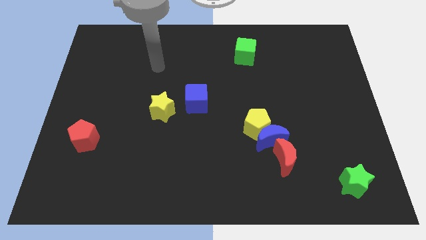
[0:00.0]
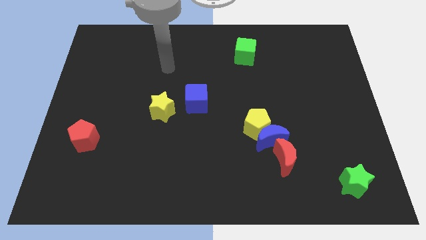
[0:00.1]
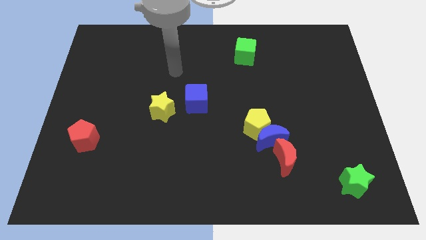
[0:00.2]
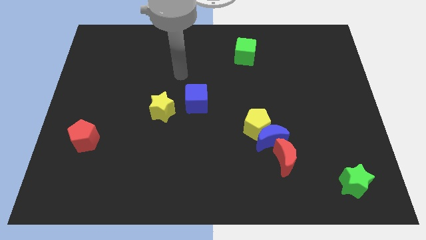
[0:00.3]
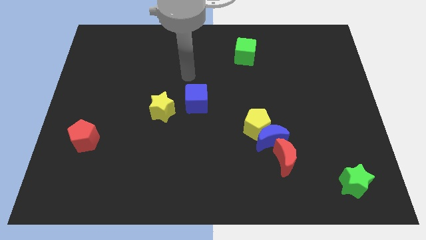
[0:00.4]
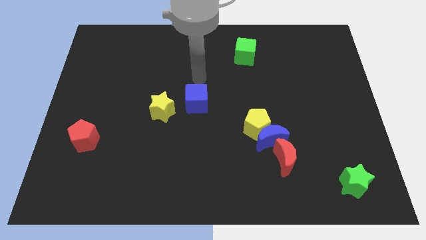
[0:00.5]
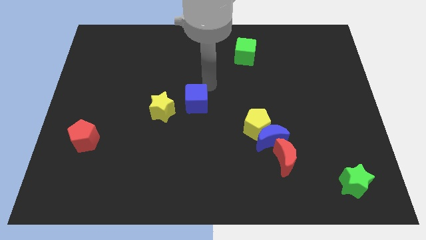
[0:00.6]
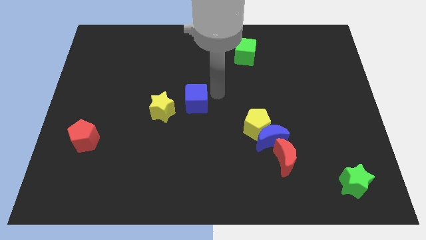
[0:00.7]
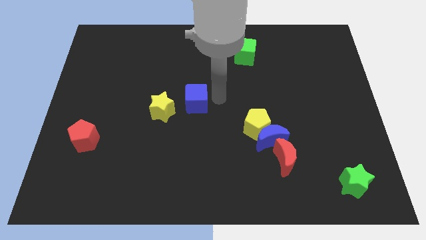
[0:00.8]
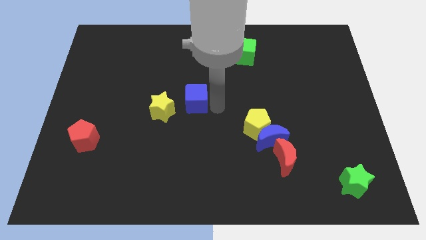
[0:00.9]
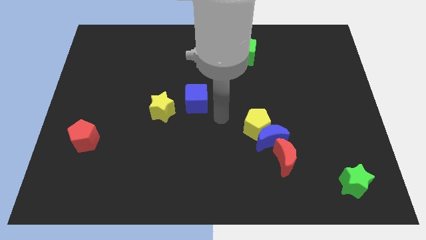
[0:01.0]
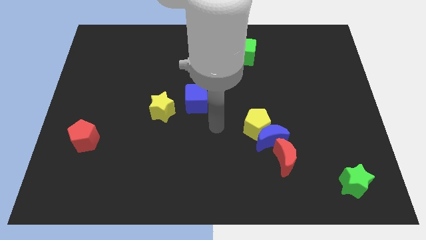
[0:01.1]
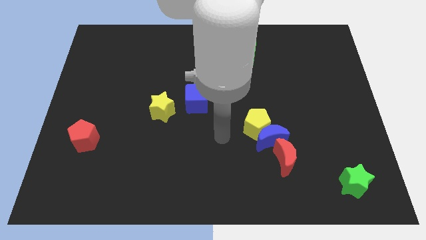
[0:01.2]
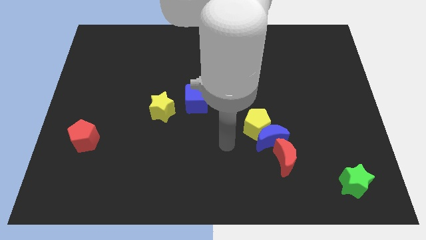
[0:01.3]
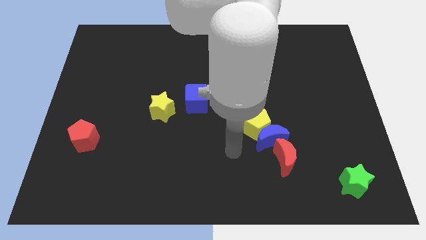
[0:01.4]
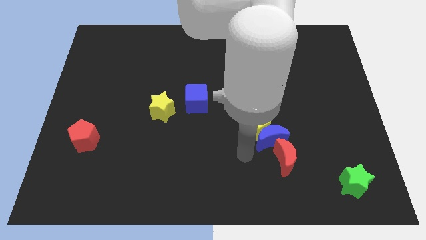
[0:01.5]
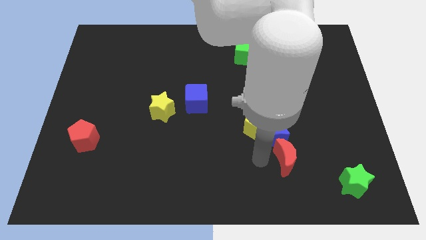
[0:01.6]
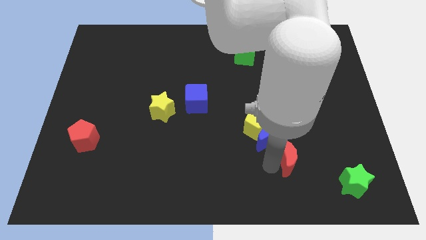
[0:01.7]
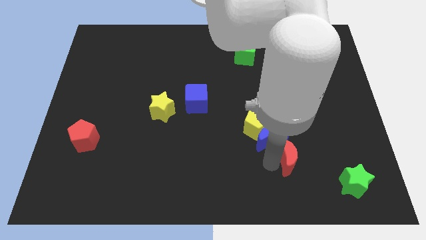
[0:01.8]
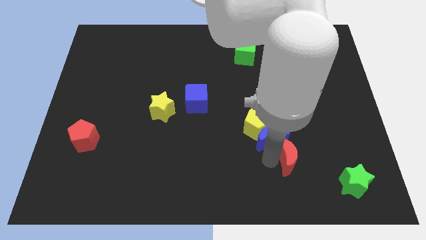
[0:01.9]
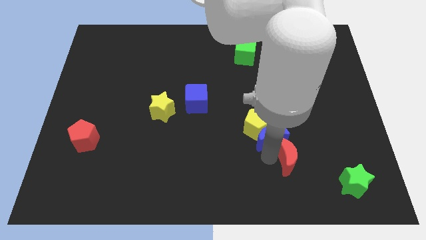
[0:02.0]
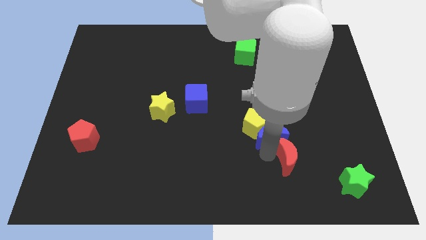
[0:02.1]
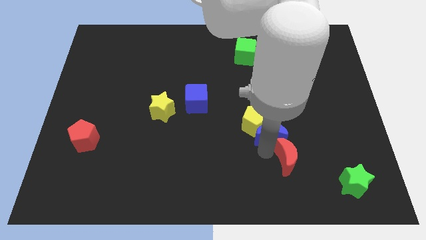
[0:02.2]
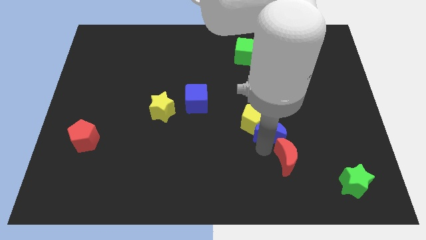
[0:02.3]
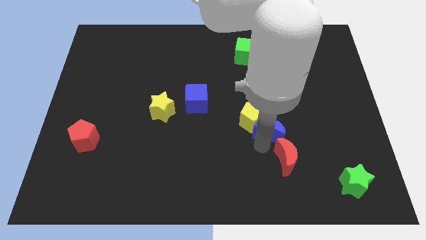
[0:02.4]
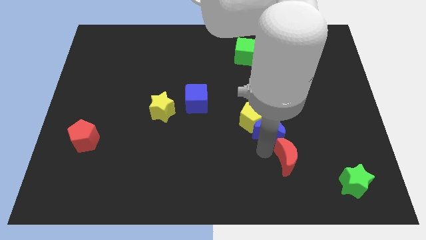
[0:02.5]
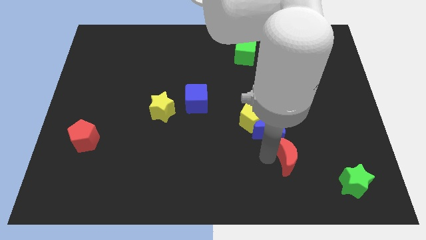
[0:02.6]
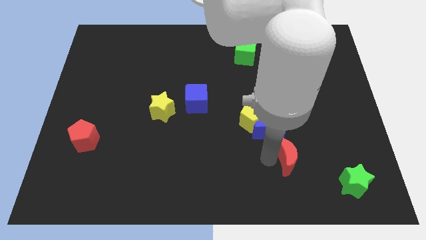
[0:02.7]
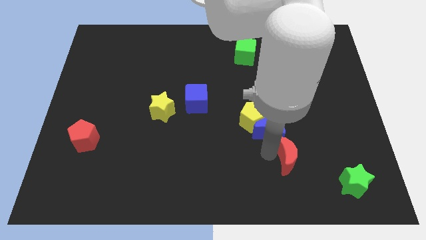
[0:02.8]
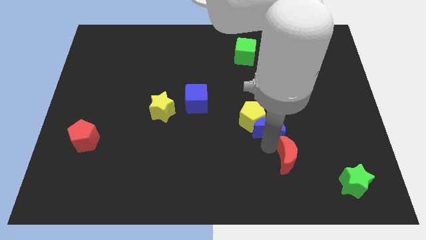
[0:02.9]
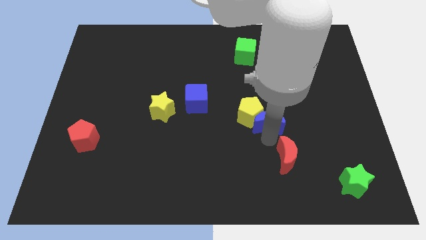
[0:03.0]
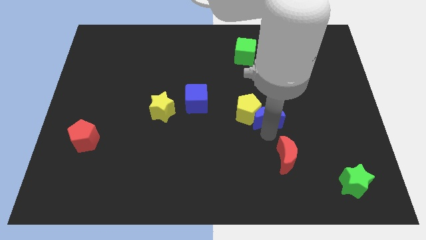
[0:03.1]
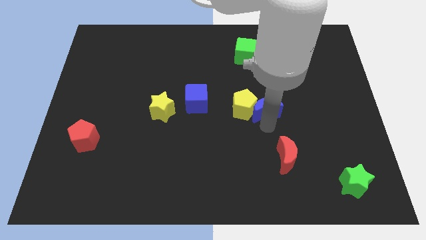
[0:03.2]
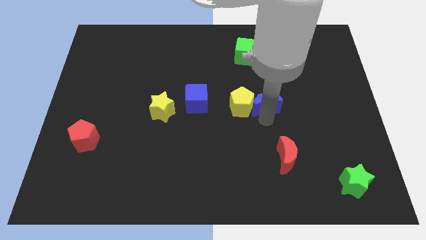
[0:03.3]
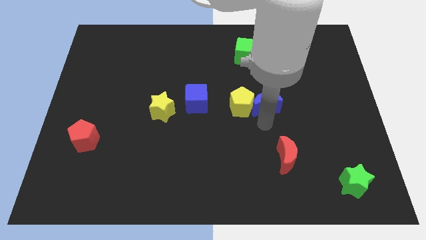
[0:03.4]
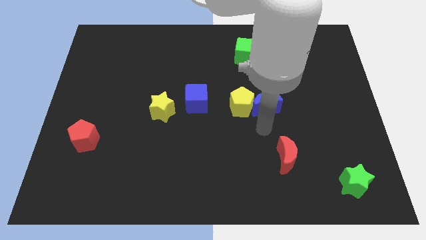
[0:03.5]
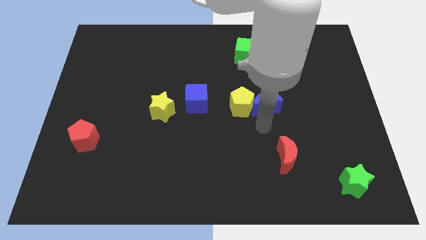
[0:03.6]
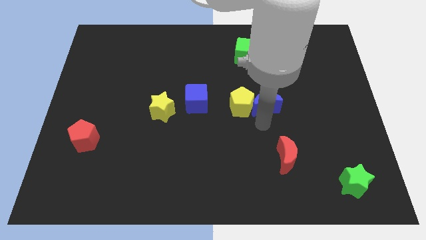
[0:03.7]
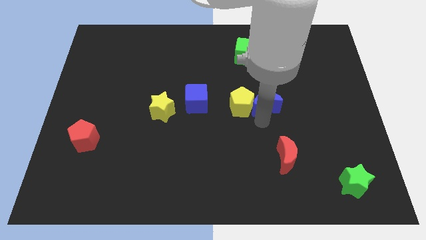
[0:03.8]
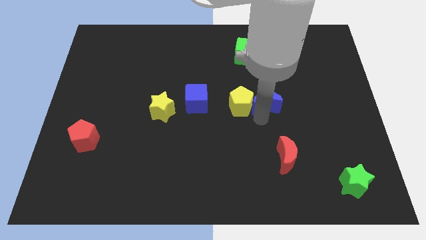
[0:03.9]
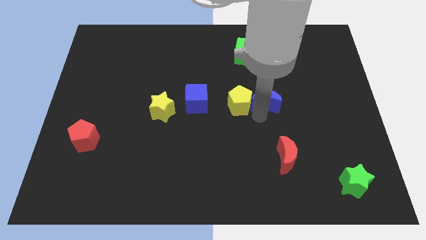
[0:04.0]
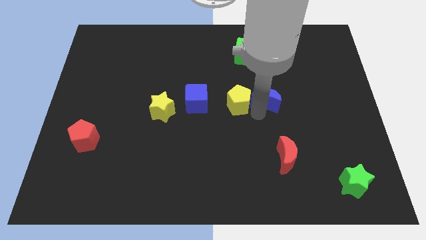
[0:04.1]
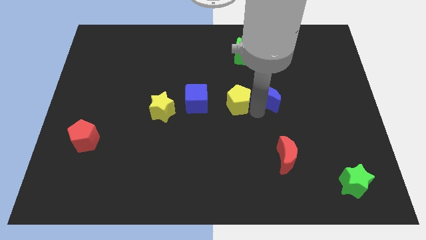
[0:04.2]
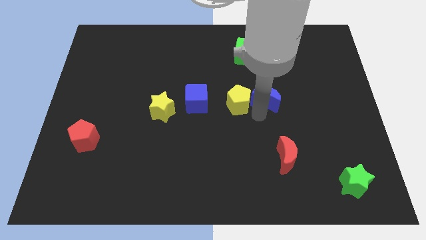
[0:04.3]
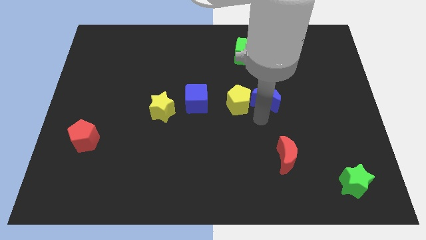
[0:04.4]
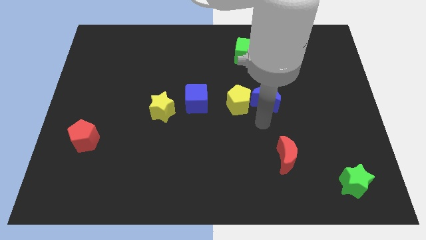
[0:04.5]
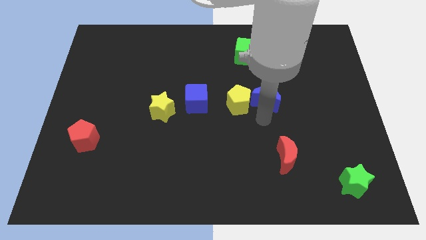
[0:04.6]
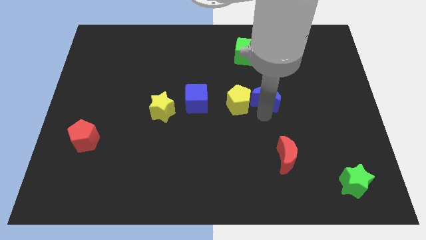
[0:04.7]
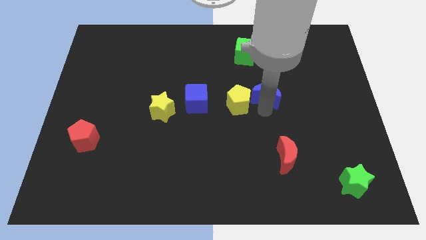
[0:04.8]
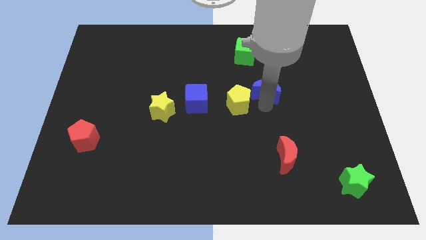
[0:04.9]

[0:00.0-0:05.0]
move the blue moon away from the yellow pentagon and red moon

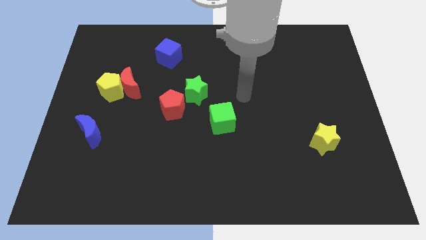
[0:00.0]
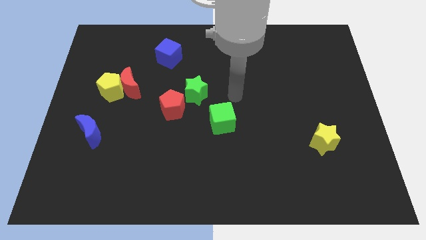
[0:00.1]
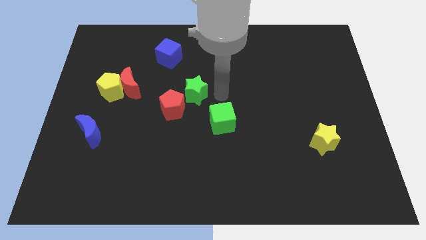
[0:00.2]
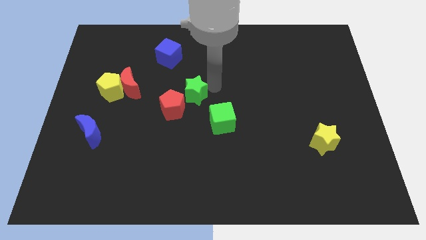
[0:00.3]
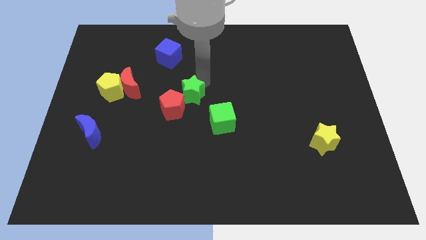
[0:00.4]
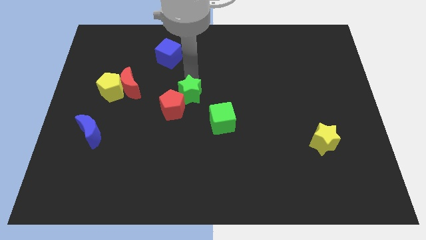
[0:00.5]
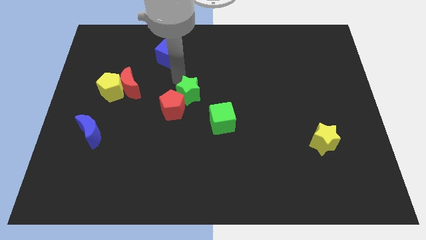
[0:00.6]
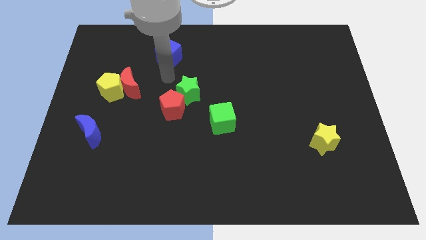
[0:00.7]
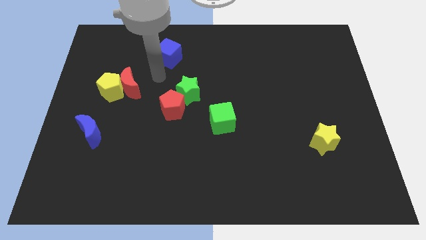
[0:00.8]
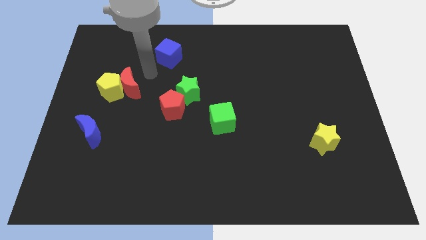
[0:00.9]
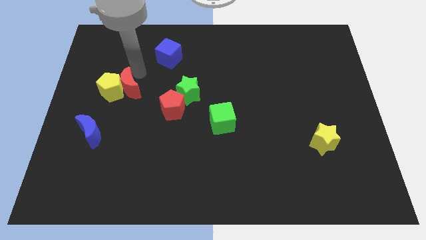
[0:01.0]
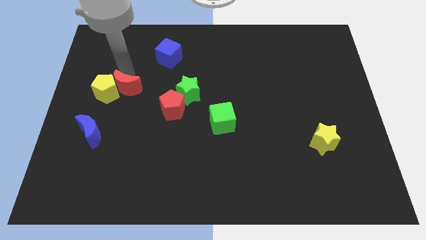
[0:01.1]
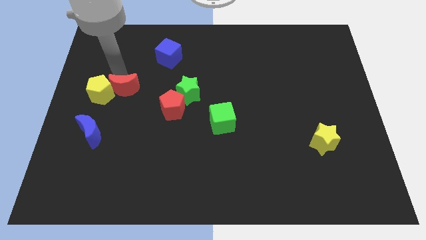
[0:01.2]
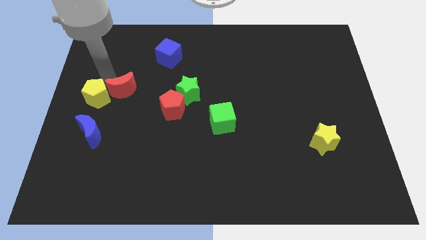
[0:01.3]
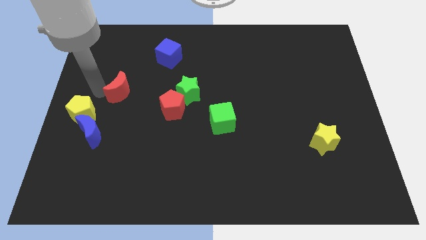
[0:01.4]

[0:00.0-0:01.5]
separate the red moon from the yellow pentagon

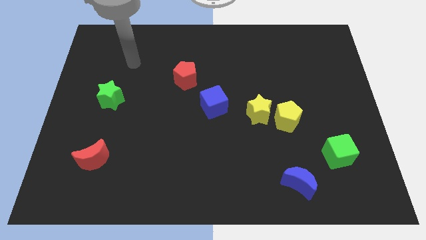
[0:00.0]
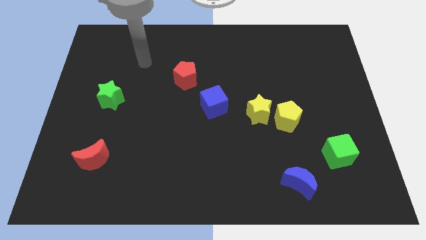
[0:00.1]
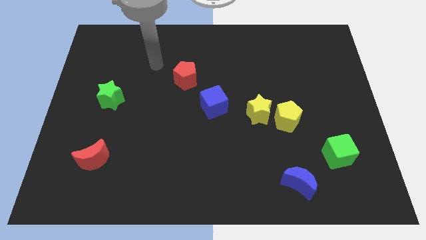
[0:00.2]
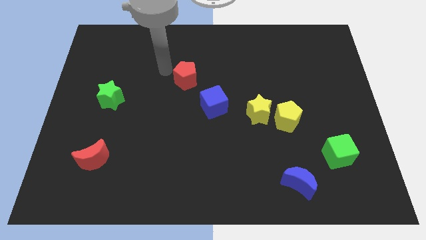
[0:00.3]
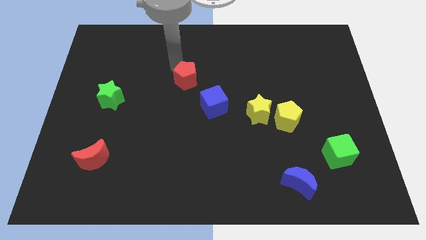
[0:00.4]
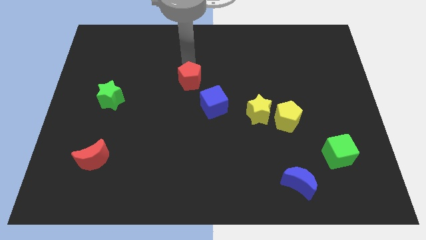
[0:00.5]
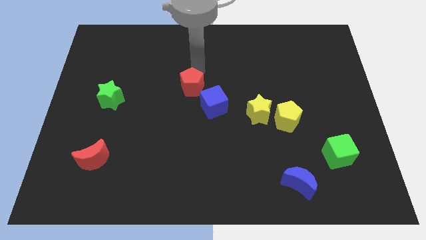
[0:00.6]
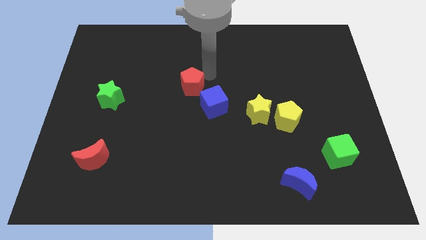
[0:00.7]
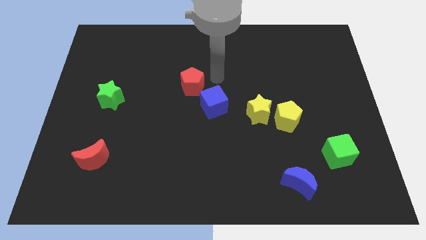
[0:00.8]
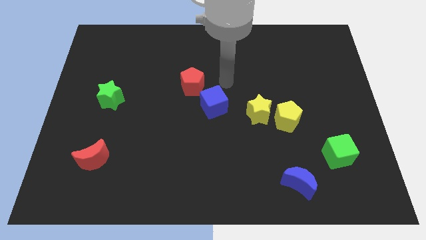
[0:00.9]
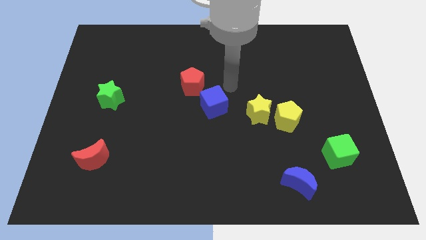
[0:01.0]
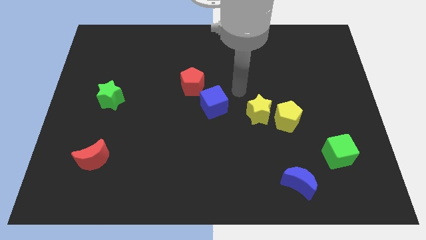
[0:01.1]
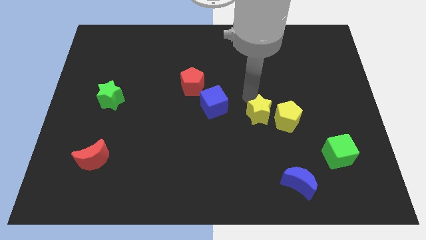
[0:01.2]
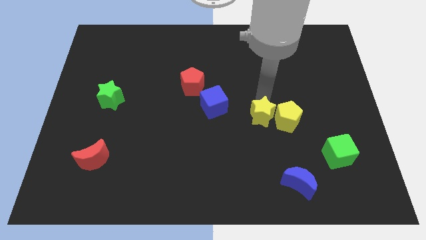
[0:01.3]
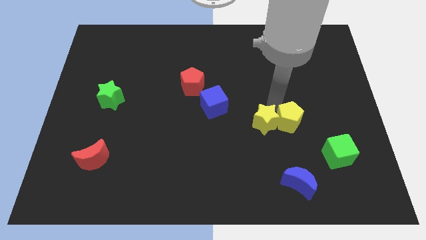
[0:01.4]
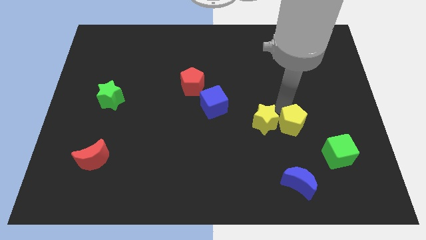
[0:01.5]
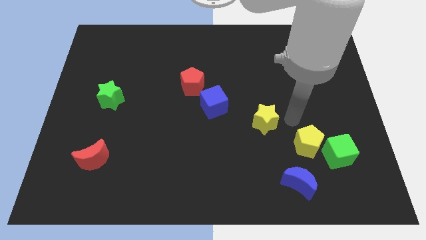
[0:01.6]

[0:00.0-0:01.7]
move the yellow star away from the yellow pentagon

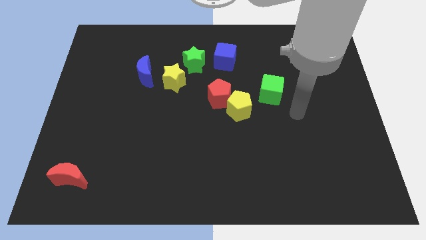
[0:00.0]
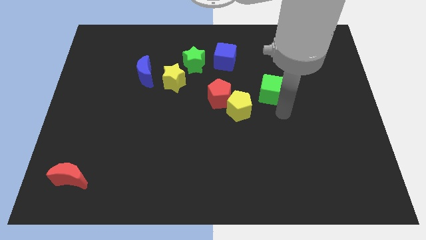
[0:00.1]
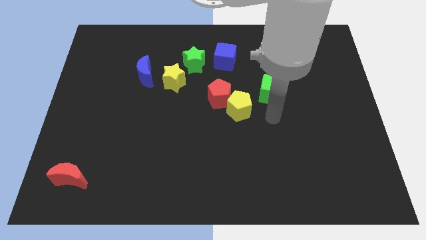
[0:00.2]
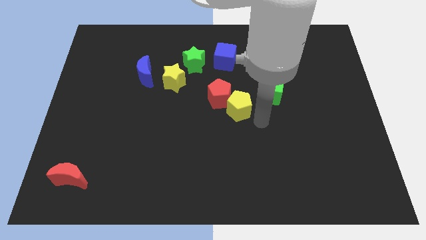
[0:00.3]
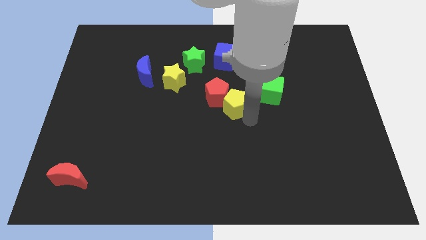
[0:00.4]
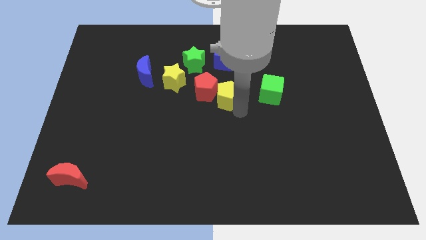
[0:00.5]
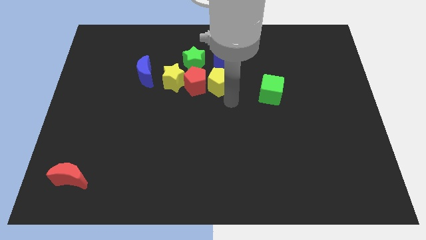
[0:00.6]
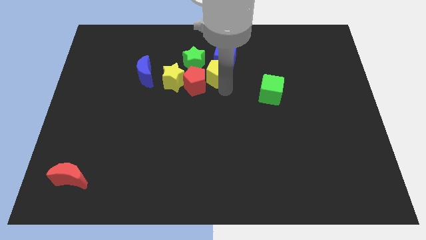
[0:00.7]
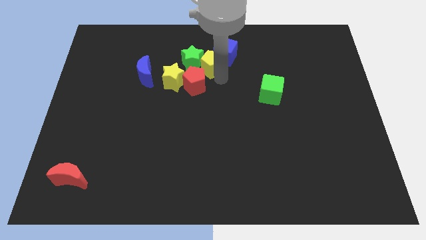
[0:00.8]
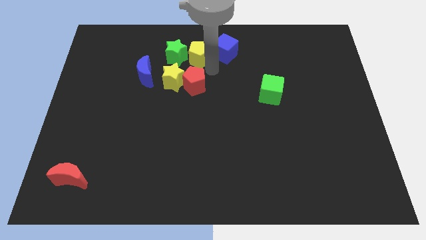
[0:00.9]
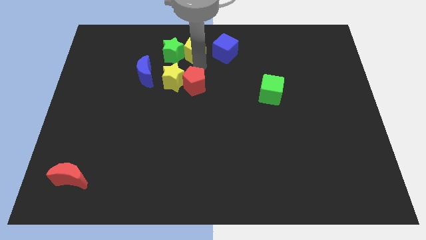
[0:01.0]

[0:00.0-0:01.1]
pull the red pentagon apart from the yellow pentagon
